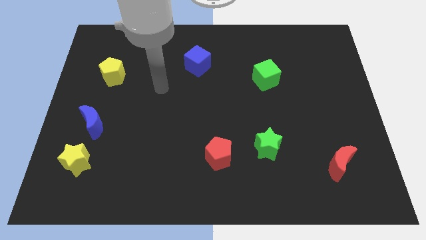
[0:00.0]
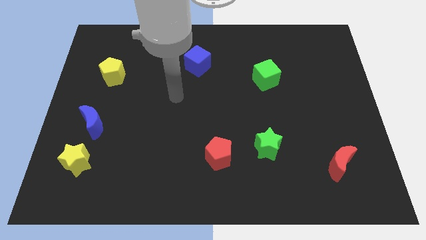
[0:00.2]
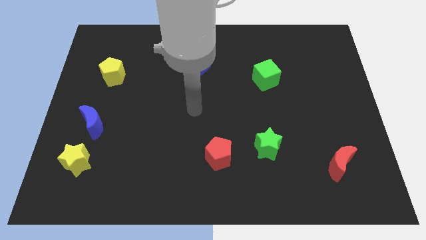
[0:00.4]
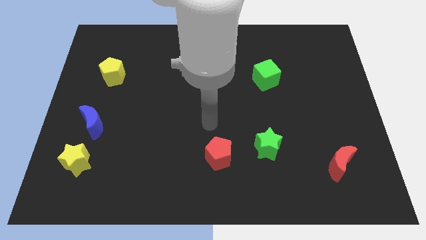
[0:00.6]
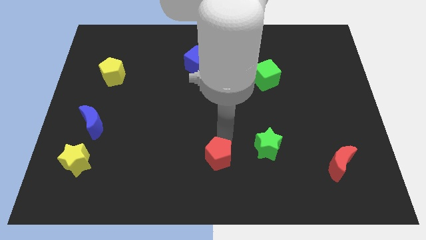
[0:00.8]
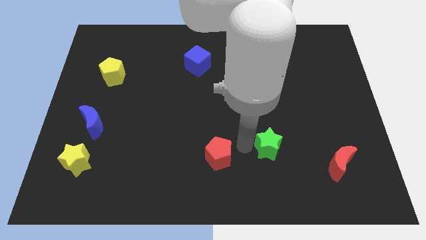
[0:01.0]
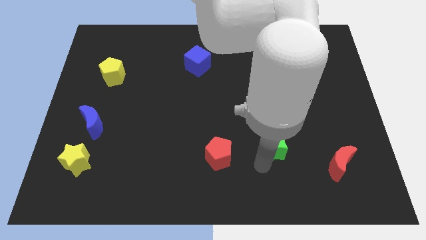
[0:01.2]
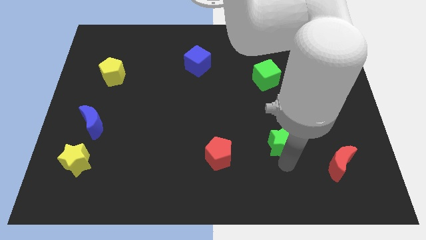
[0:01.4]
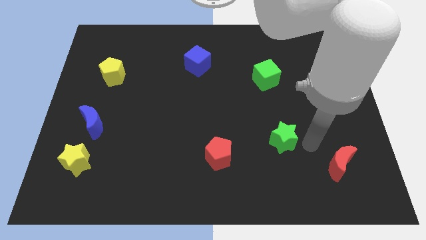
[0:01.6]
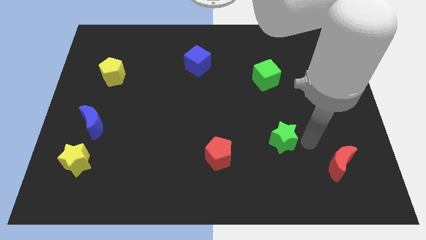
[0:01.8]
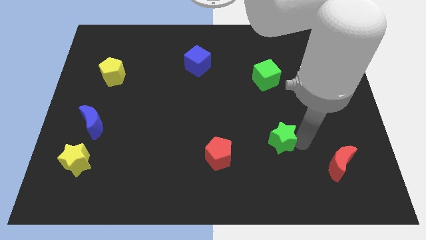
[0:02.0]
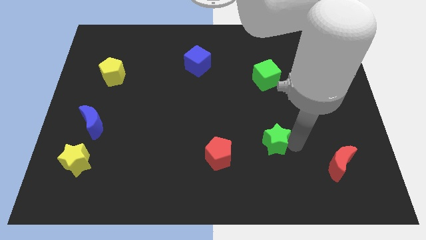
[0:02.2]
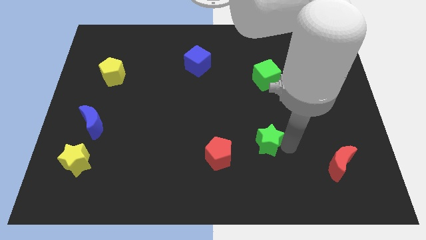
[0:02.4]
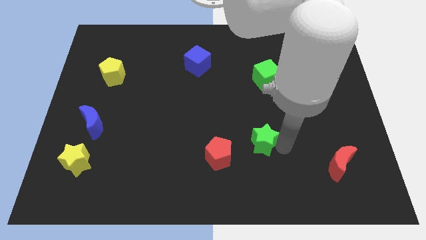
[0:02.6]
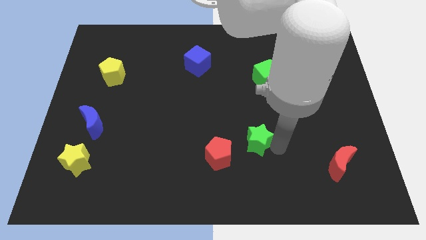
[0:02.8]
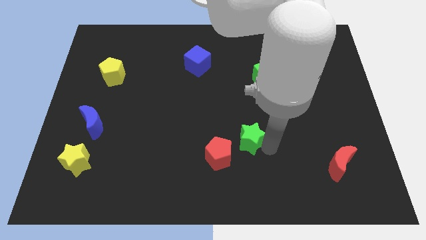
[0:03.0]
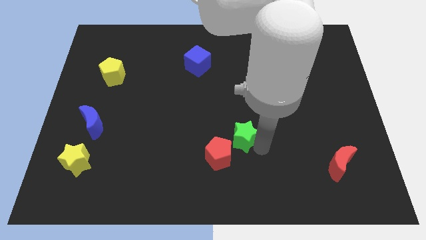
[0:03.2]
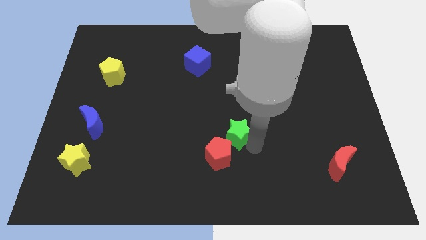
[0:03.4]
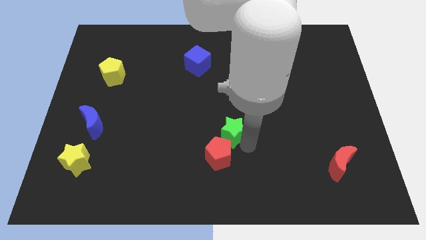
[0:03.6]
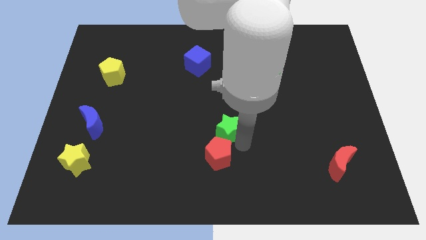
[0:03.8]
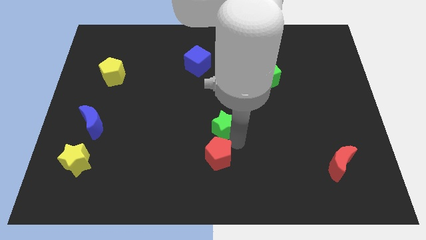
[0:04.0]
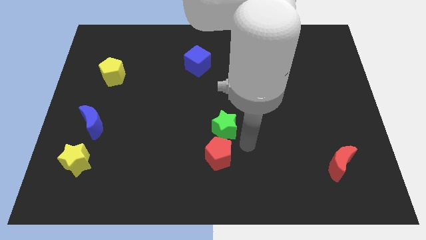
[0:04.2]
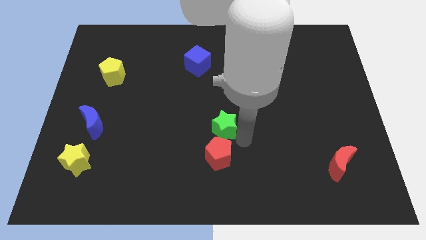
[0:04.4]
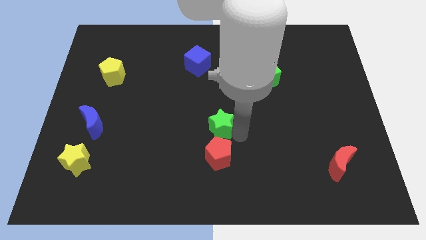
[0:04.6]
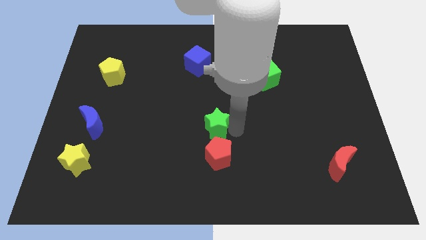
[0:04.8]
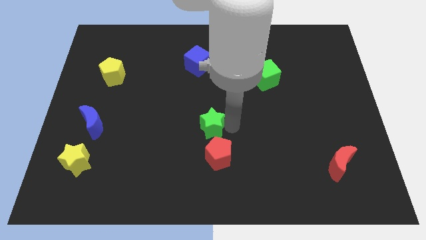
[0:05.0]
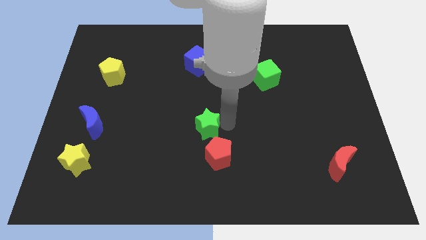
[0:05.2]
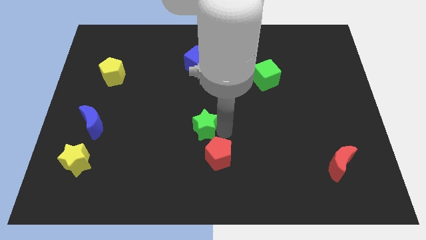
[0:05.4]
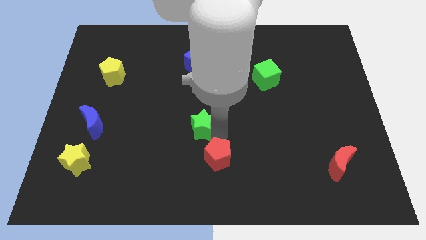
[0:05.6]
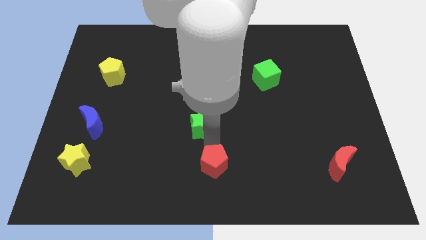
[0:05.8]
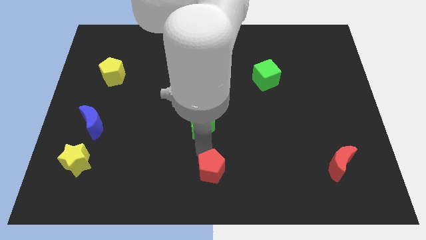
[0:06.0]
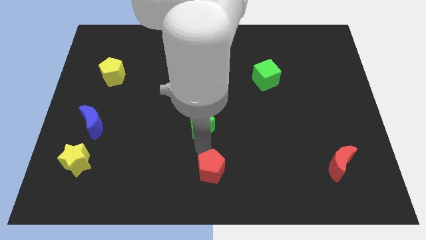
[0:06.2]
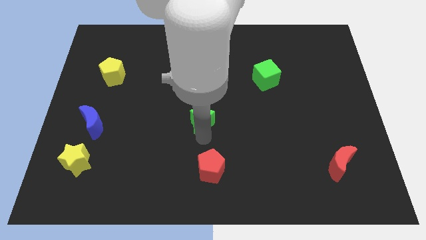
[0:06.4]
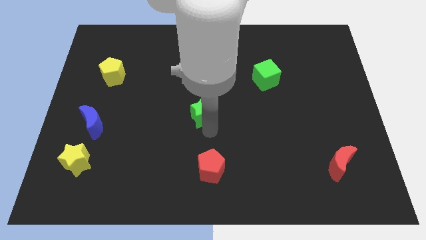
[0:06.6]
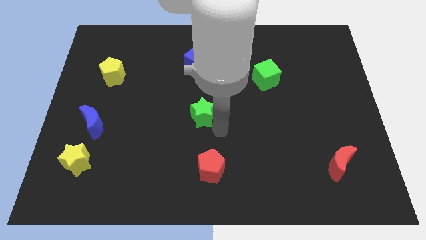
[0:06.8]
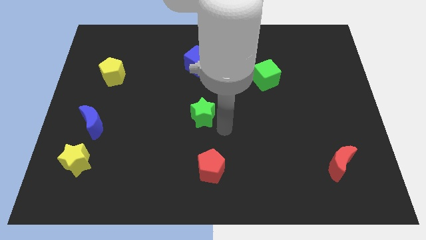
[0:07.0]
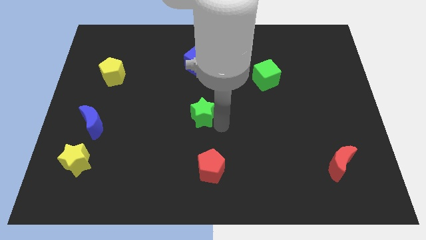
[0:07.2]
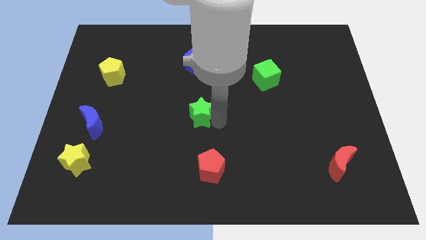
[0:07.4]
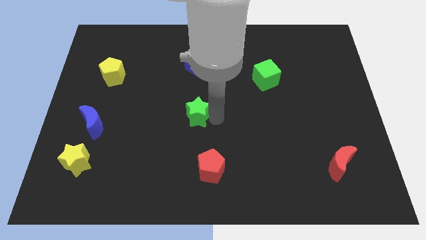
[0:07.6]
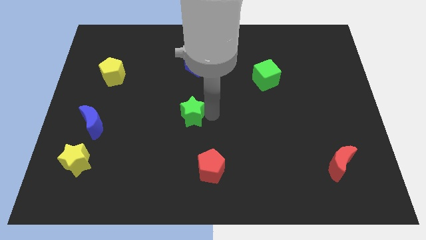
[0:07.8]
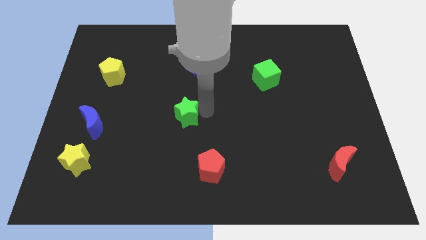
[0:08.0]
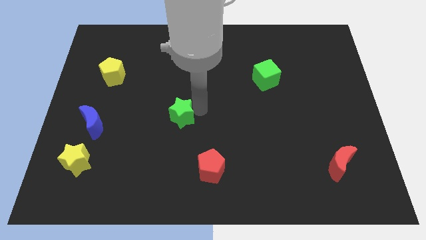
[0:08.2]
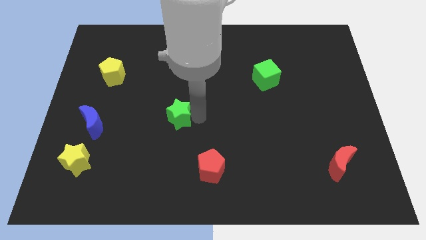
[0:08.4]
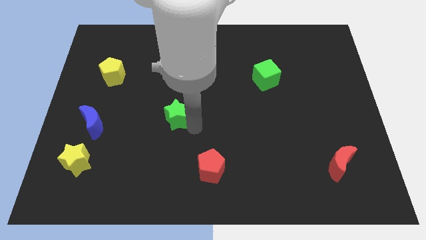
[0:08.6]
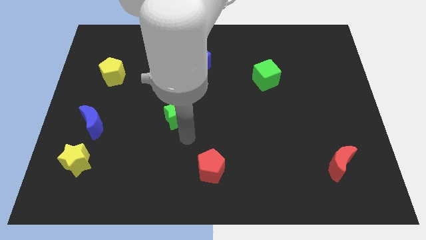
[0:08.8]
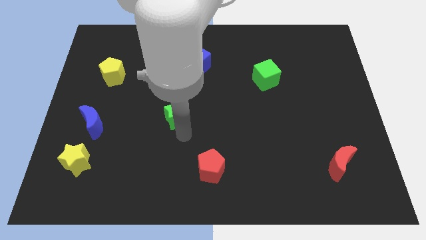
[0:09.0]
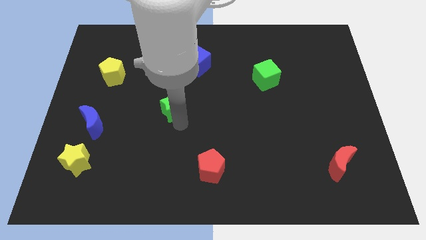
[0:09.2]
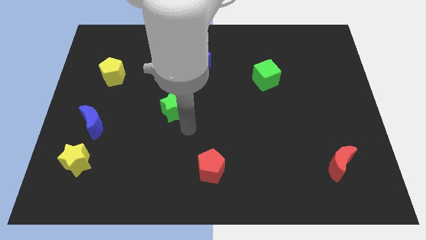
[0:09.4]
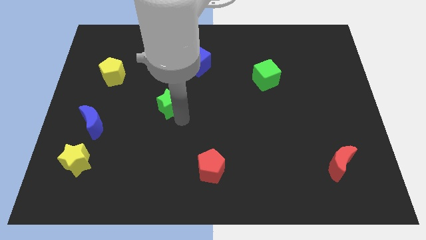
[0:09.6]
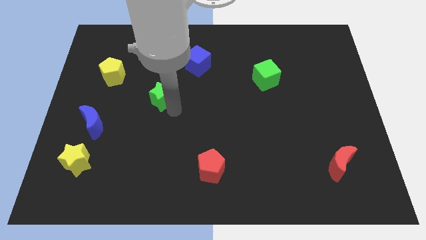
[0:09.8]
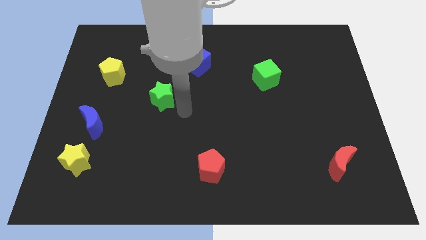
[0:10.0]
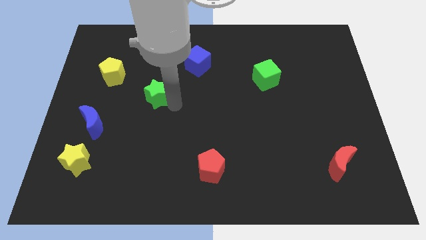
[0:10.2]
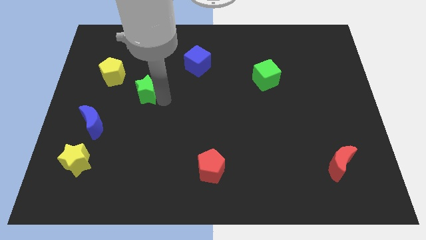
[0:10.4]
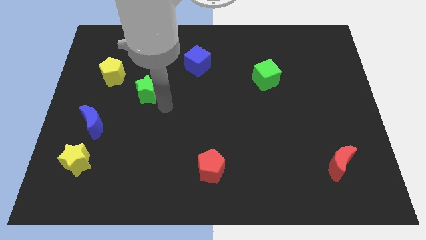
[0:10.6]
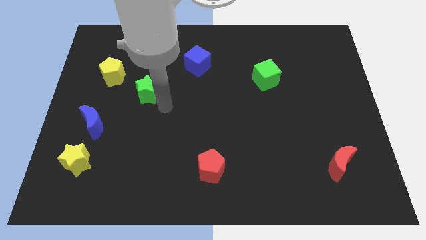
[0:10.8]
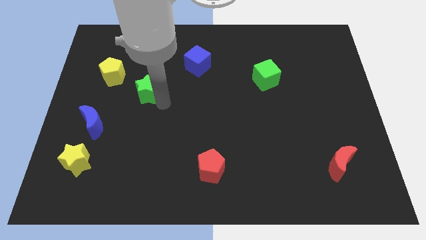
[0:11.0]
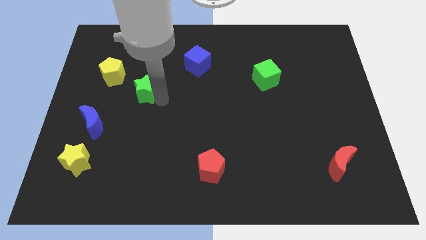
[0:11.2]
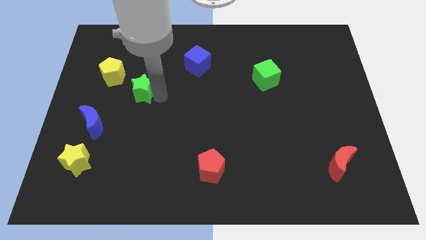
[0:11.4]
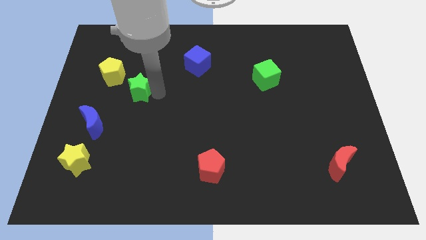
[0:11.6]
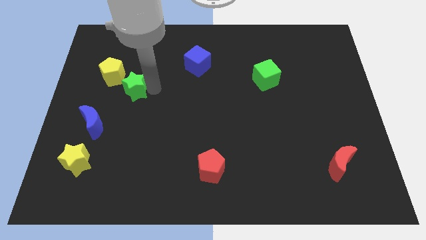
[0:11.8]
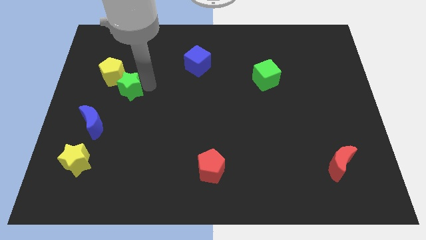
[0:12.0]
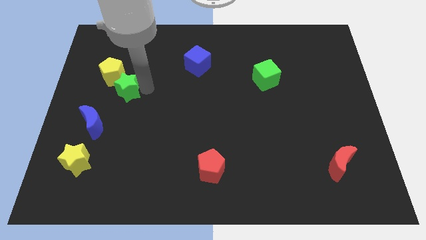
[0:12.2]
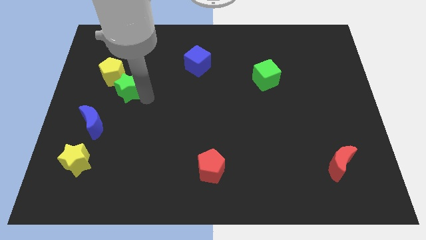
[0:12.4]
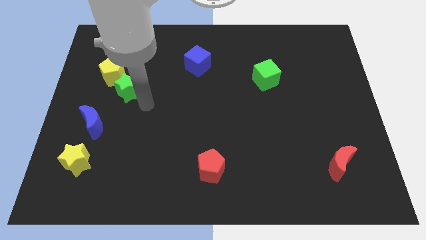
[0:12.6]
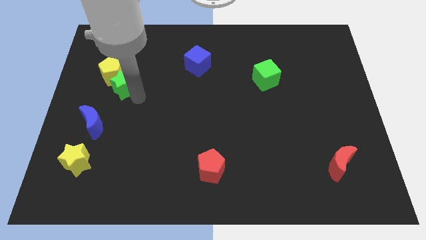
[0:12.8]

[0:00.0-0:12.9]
move the green star to the yellow pentagon

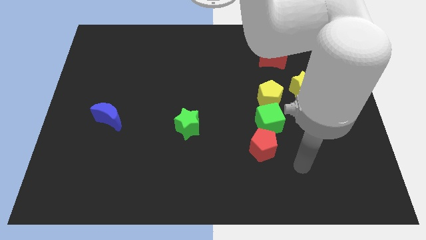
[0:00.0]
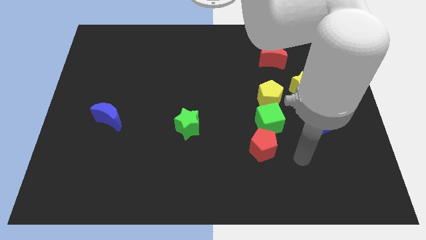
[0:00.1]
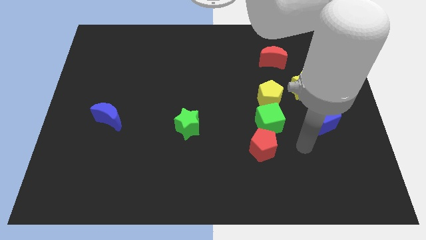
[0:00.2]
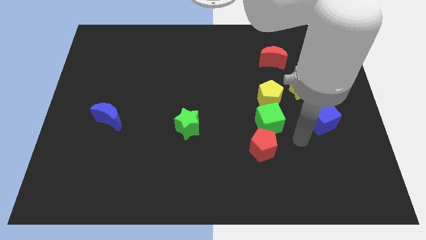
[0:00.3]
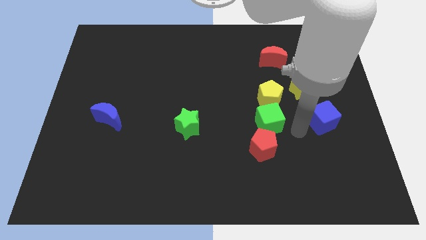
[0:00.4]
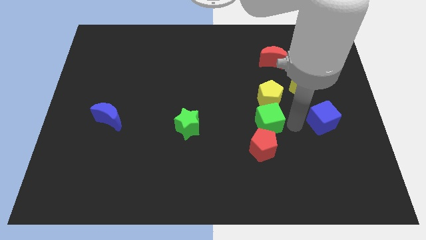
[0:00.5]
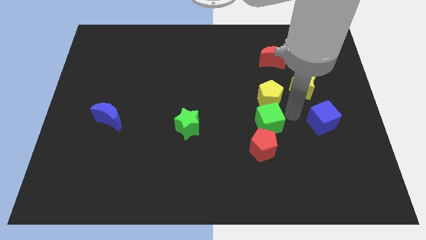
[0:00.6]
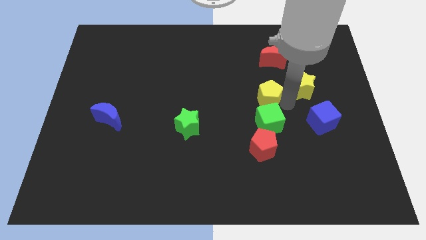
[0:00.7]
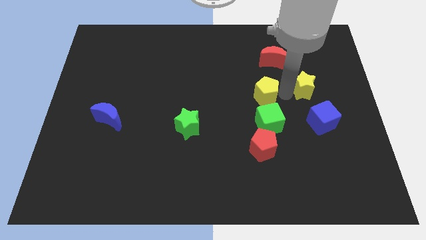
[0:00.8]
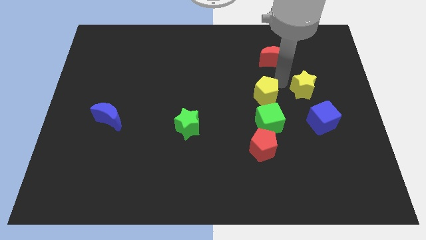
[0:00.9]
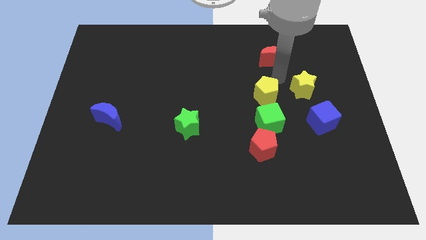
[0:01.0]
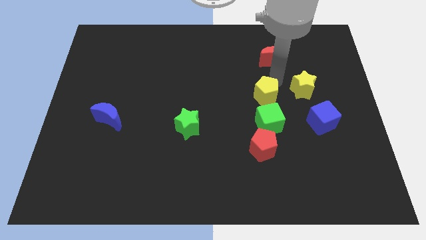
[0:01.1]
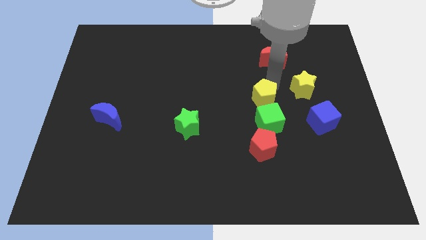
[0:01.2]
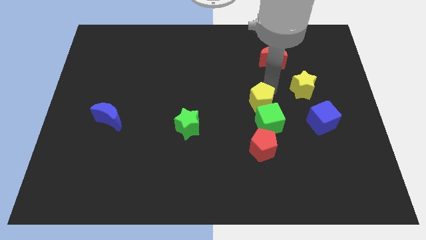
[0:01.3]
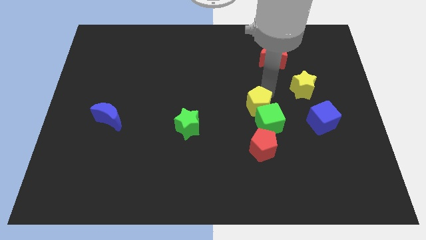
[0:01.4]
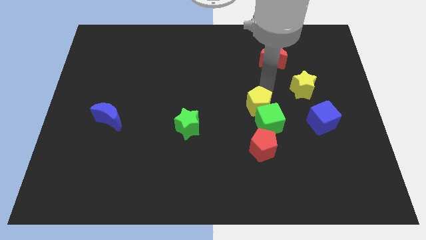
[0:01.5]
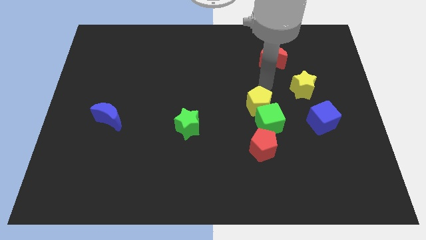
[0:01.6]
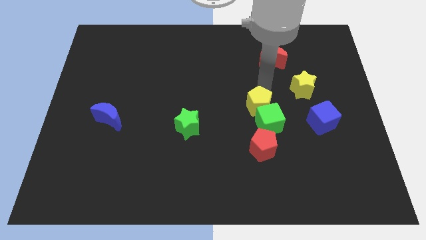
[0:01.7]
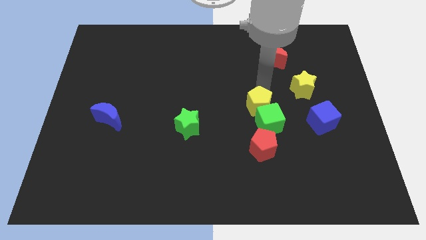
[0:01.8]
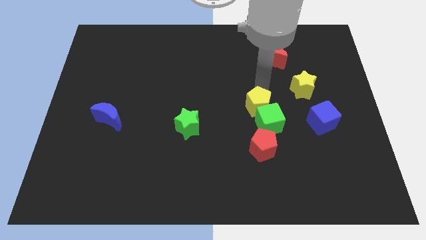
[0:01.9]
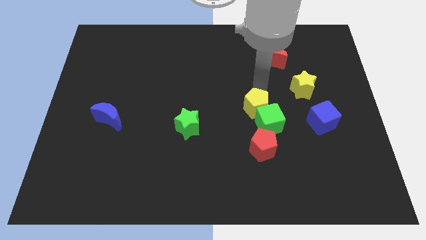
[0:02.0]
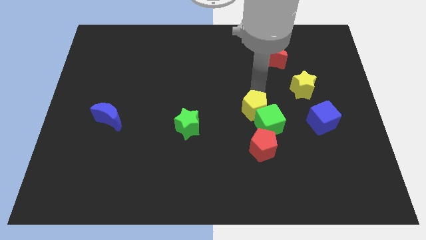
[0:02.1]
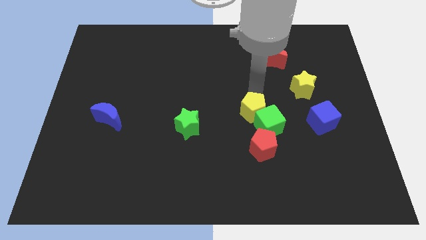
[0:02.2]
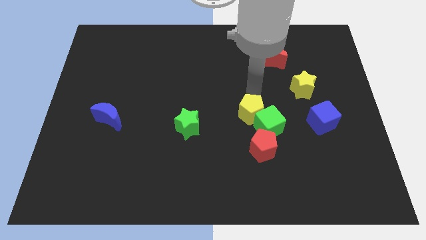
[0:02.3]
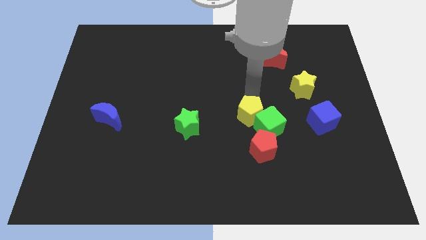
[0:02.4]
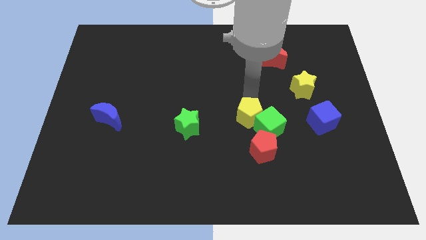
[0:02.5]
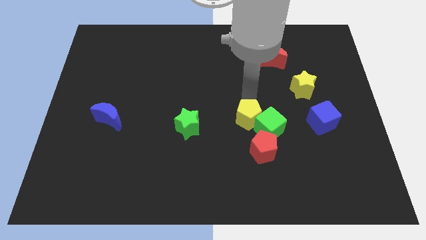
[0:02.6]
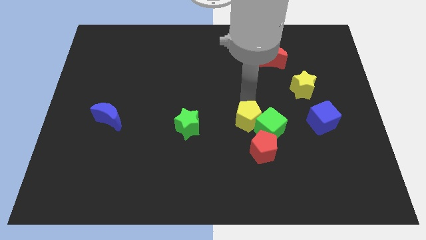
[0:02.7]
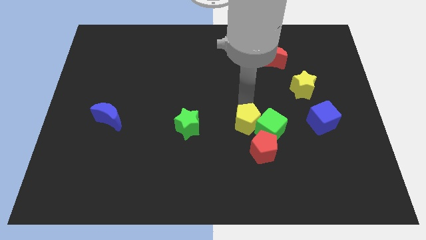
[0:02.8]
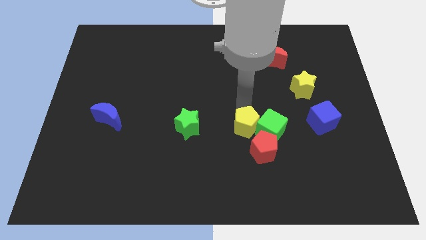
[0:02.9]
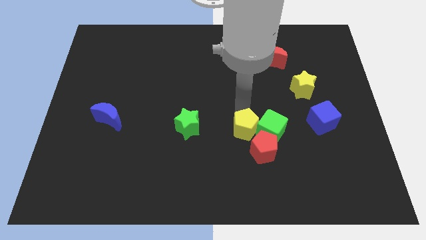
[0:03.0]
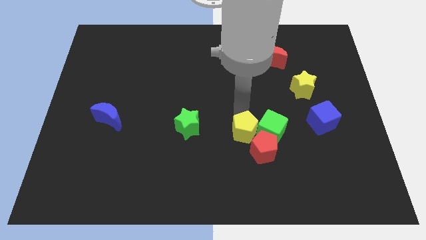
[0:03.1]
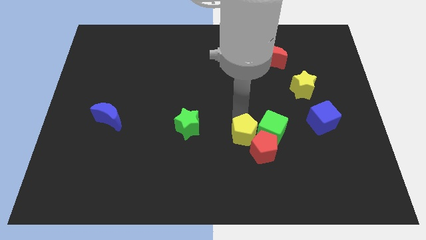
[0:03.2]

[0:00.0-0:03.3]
put the yellow pentagon next to the red pentagon
